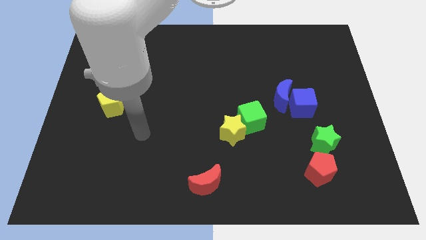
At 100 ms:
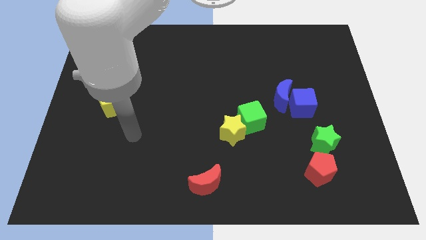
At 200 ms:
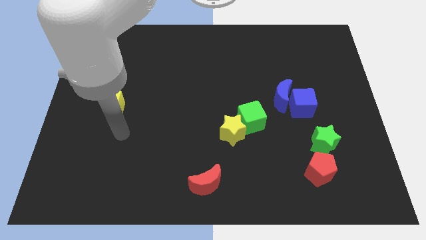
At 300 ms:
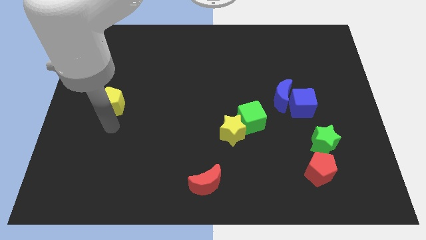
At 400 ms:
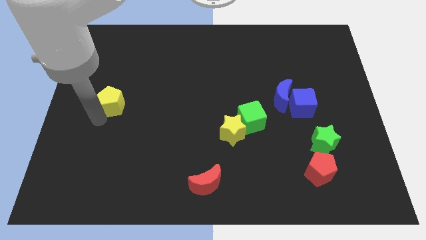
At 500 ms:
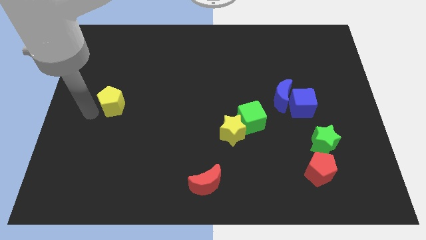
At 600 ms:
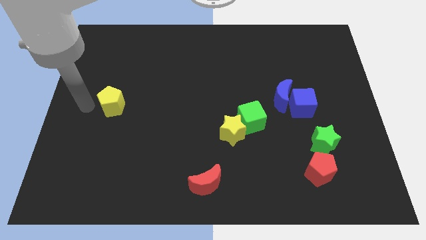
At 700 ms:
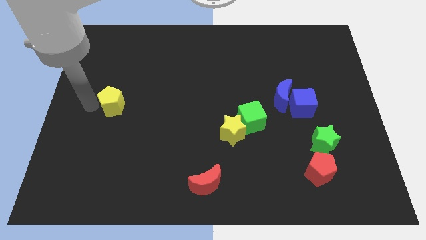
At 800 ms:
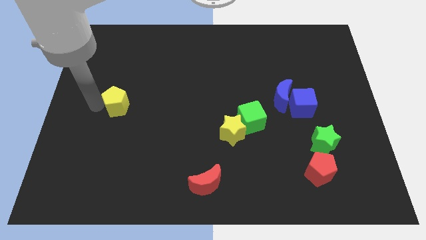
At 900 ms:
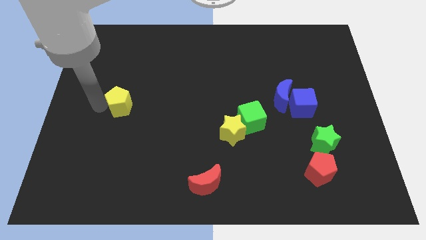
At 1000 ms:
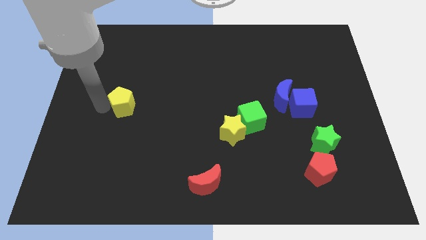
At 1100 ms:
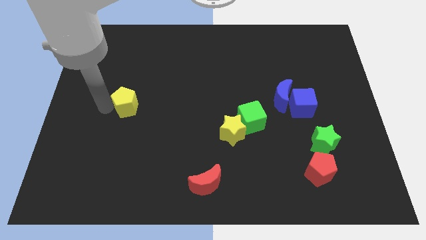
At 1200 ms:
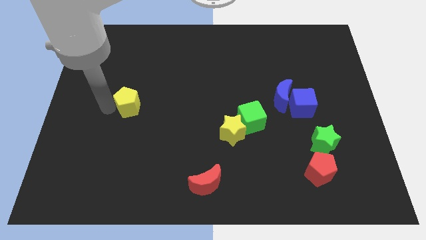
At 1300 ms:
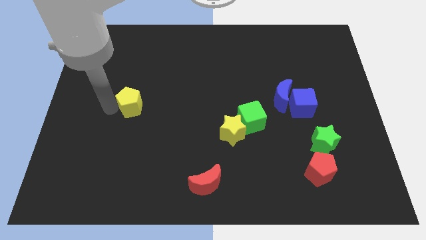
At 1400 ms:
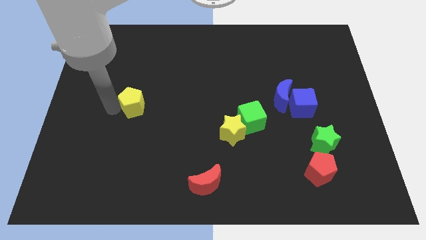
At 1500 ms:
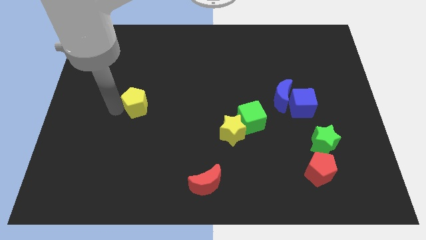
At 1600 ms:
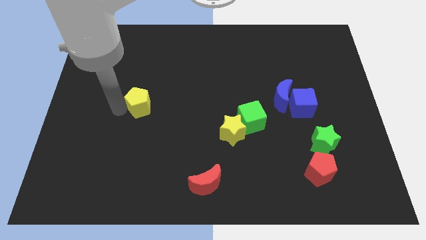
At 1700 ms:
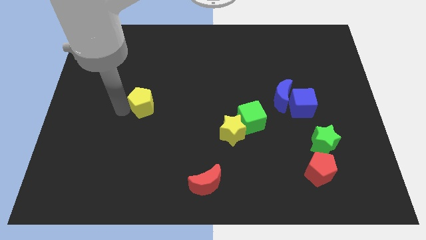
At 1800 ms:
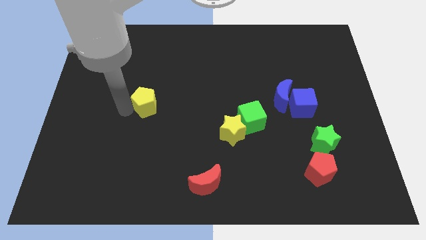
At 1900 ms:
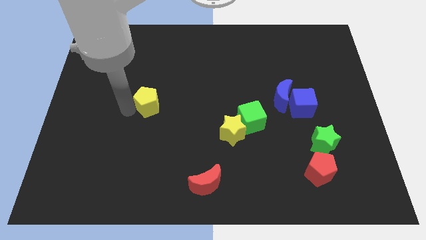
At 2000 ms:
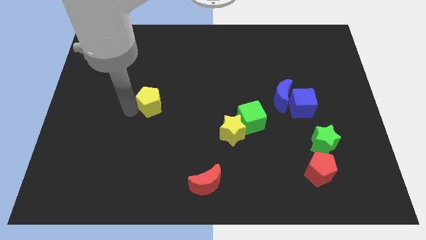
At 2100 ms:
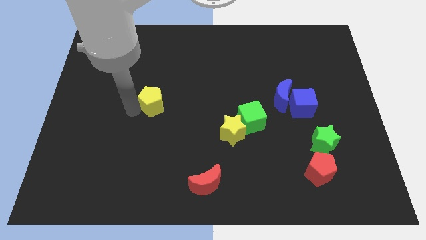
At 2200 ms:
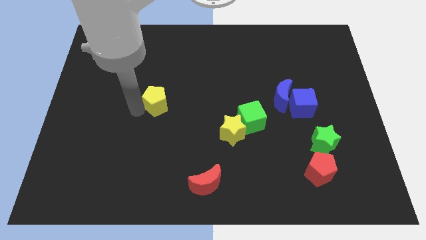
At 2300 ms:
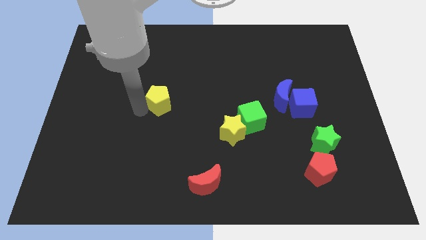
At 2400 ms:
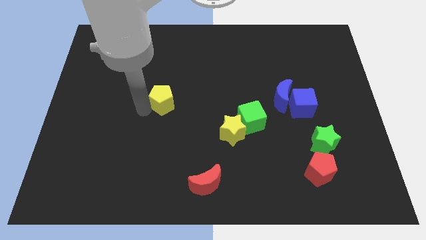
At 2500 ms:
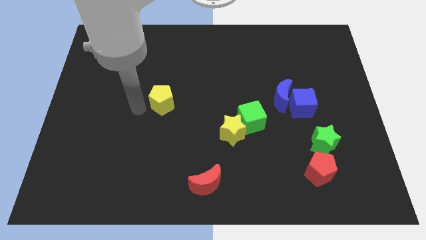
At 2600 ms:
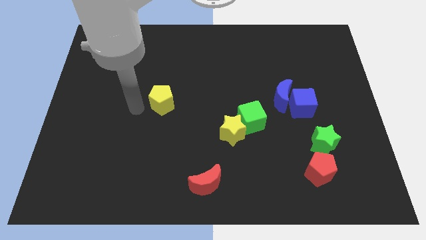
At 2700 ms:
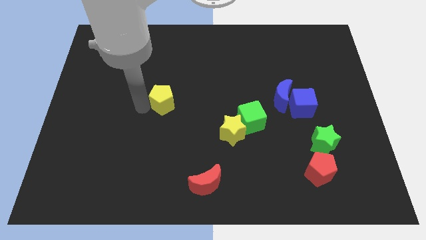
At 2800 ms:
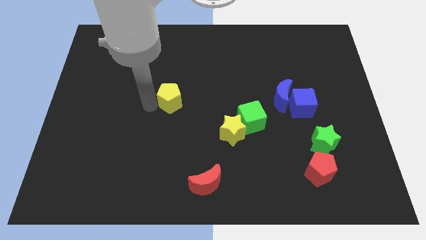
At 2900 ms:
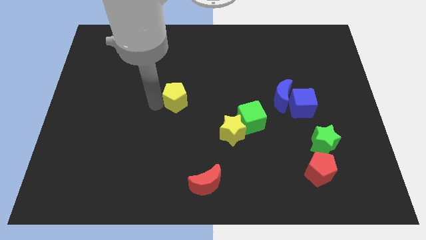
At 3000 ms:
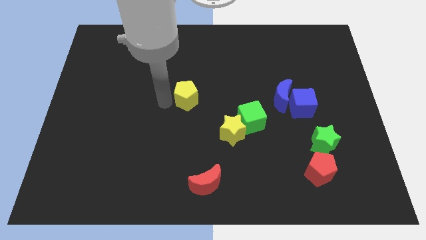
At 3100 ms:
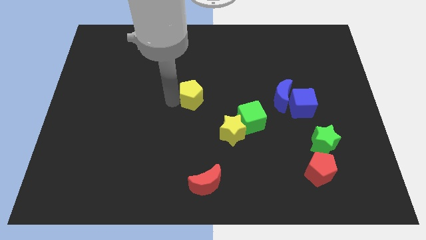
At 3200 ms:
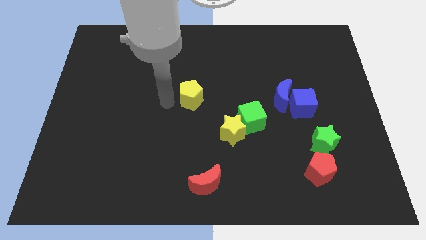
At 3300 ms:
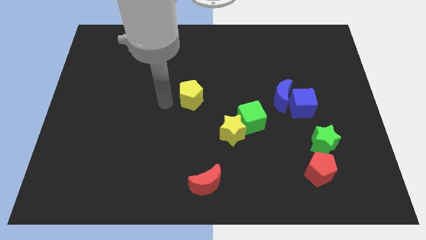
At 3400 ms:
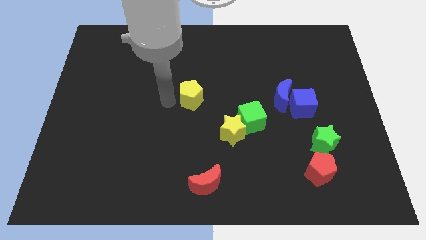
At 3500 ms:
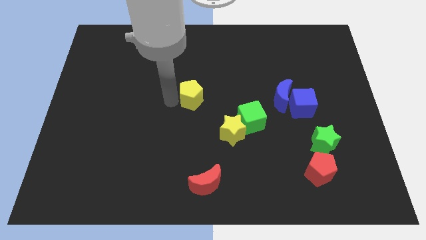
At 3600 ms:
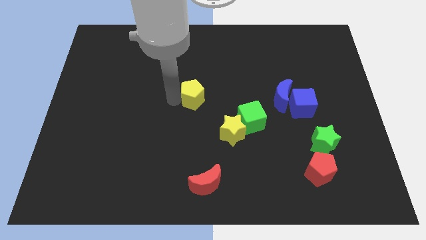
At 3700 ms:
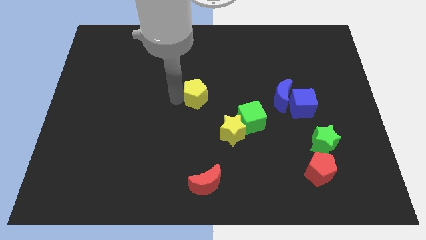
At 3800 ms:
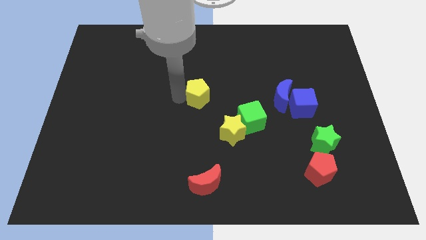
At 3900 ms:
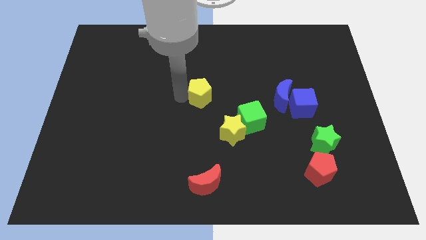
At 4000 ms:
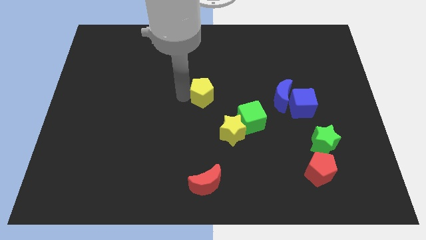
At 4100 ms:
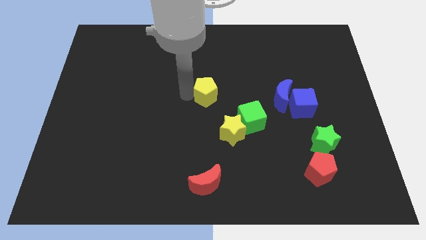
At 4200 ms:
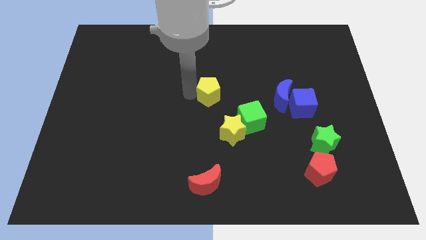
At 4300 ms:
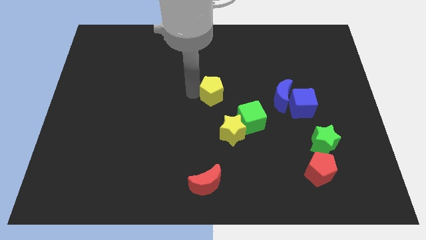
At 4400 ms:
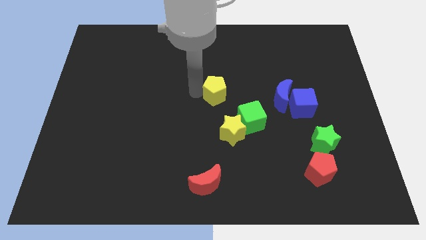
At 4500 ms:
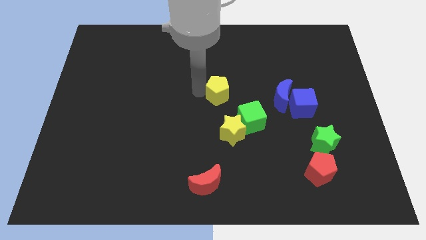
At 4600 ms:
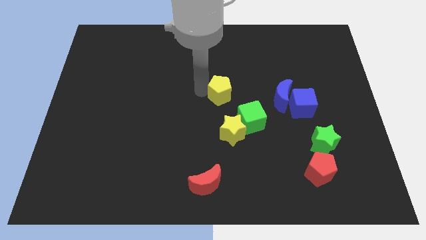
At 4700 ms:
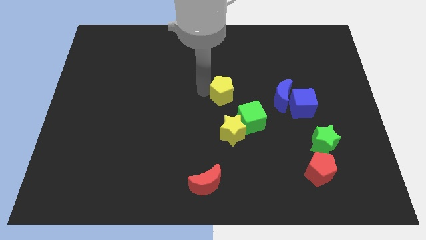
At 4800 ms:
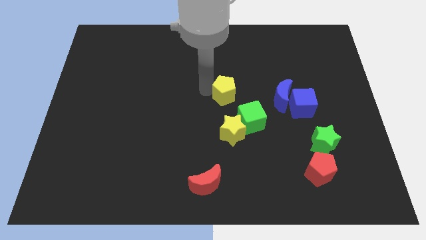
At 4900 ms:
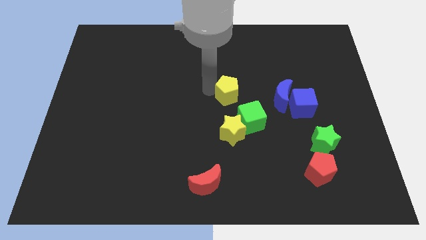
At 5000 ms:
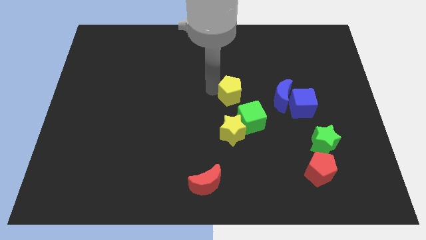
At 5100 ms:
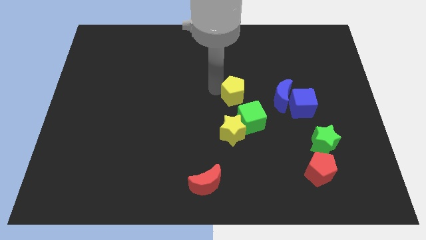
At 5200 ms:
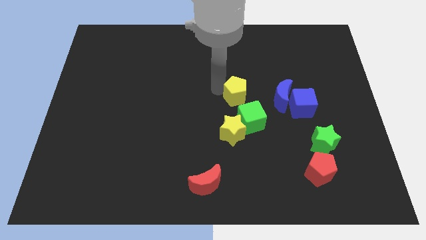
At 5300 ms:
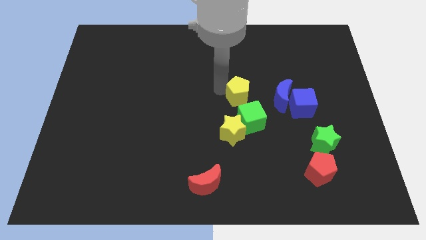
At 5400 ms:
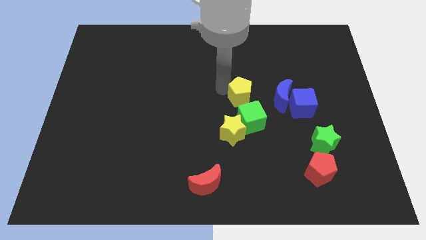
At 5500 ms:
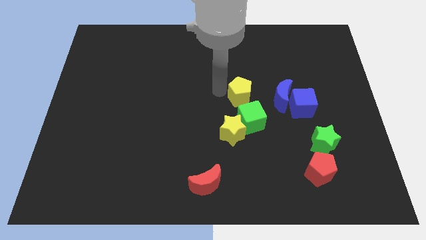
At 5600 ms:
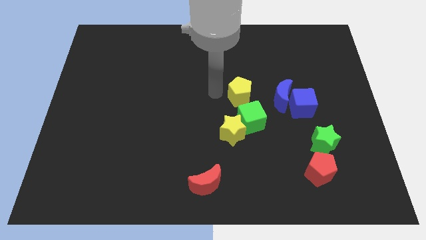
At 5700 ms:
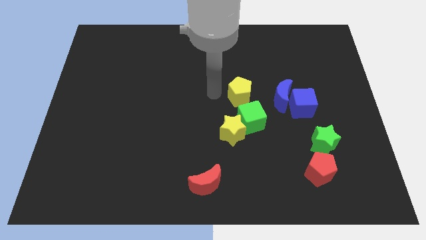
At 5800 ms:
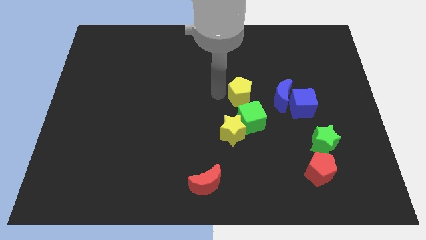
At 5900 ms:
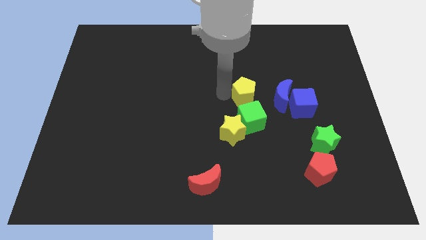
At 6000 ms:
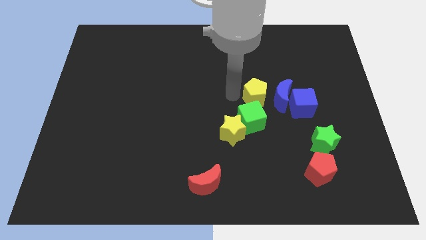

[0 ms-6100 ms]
put the yellow pentagon towards the blue moon

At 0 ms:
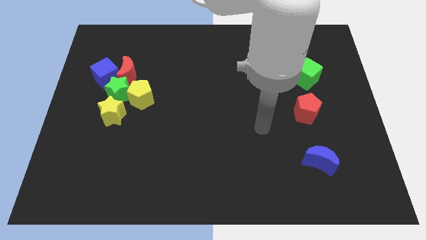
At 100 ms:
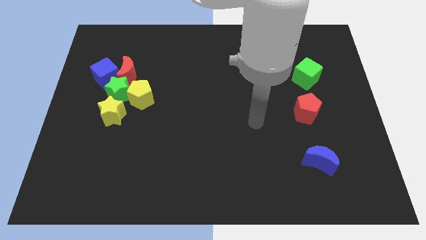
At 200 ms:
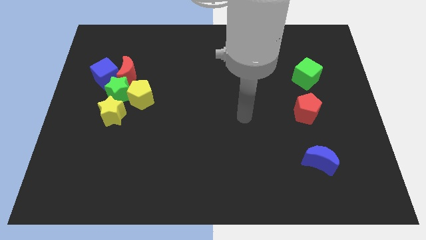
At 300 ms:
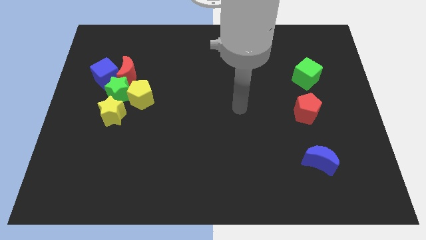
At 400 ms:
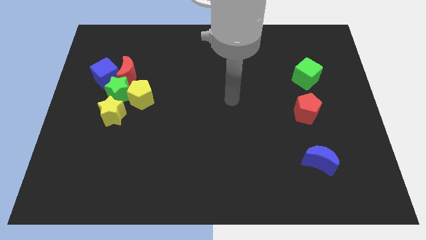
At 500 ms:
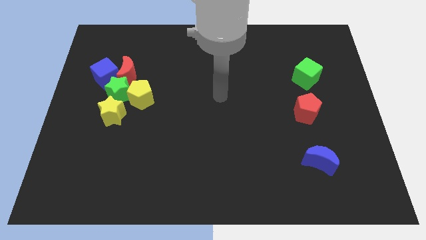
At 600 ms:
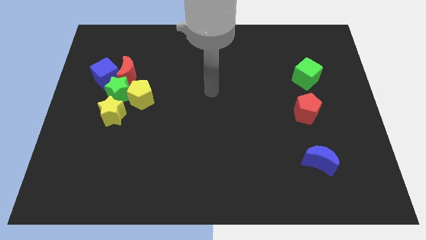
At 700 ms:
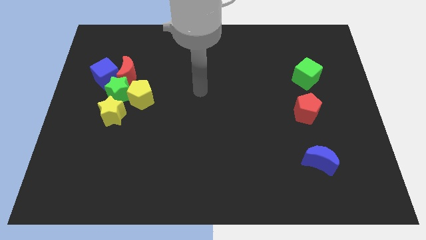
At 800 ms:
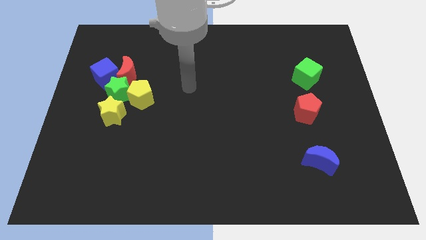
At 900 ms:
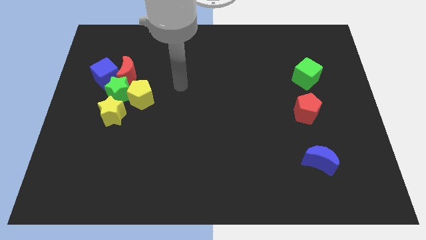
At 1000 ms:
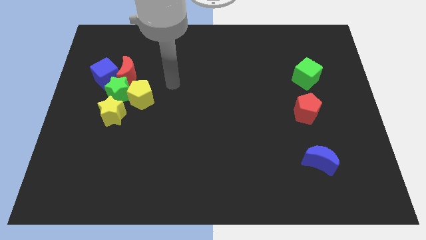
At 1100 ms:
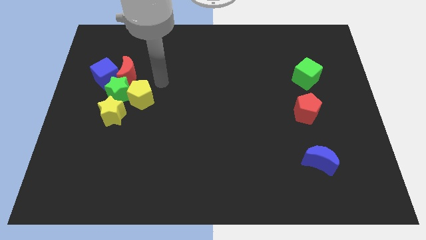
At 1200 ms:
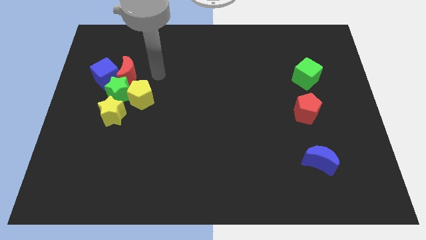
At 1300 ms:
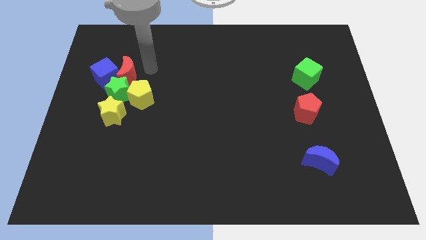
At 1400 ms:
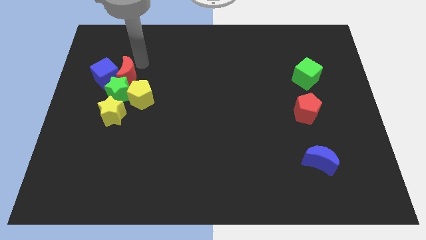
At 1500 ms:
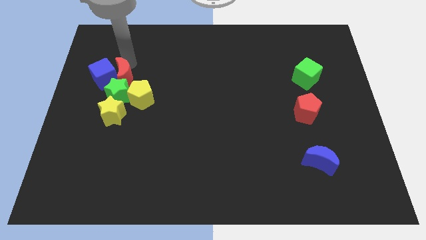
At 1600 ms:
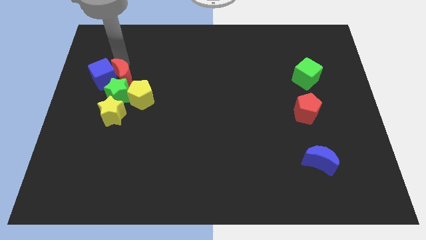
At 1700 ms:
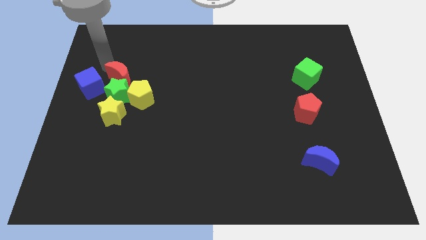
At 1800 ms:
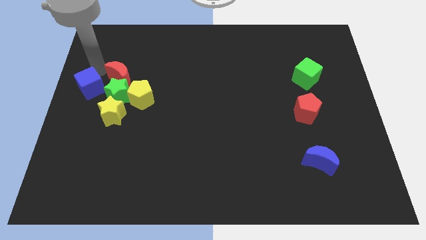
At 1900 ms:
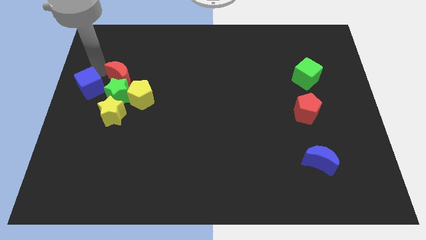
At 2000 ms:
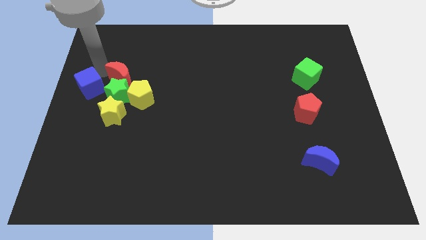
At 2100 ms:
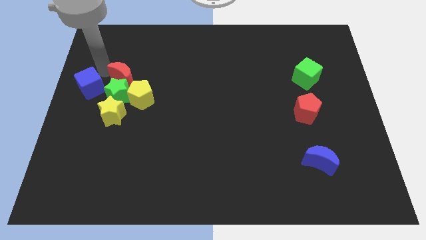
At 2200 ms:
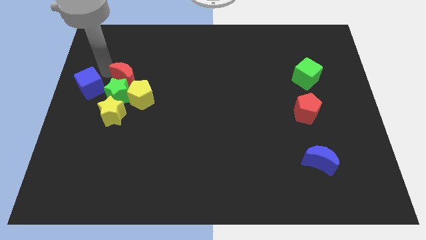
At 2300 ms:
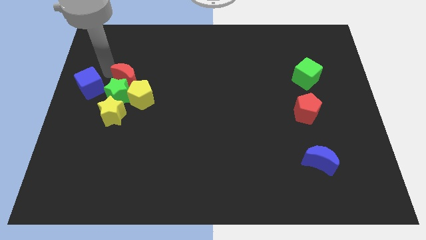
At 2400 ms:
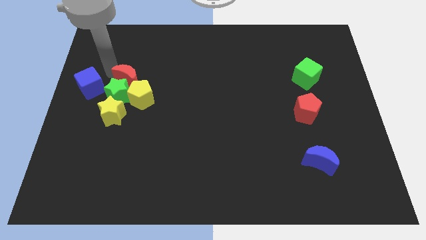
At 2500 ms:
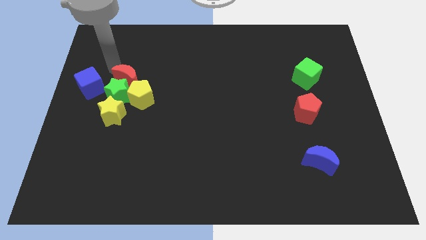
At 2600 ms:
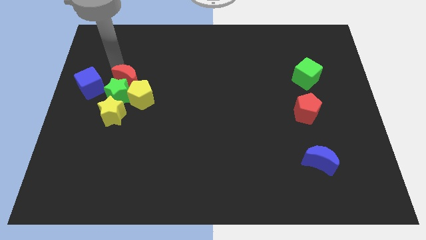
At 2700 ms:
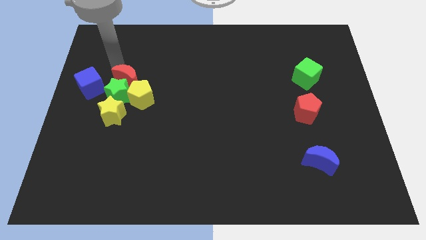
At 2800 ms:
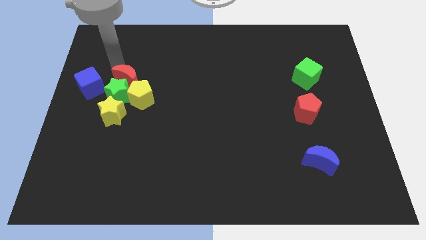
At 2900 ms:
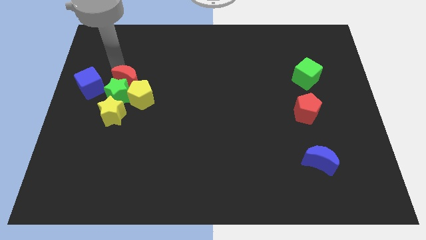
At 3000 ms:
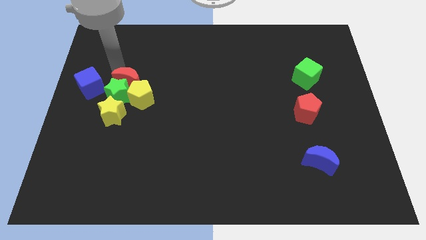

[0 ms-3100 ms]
push the red moon next to the yellow pentagon
